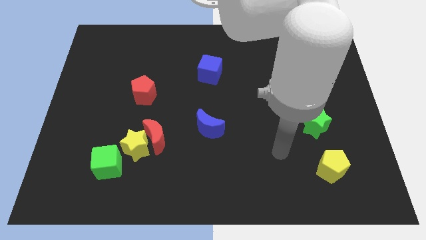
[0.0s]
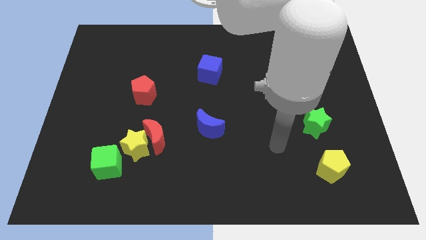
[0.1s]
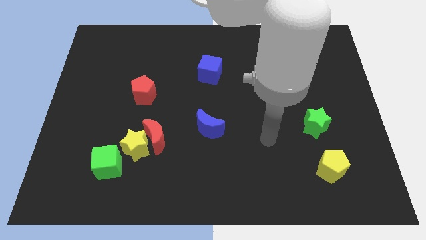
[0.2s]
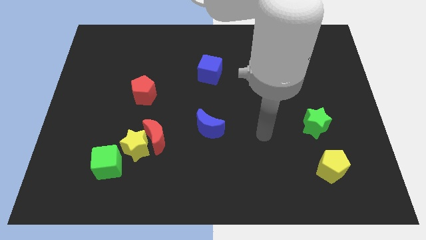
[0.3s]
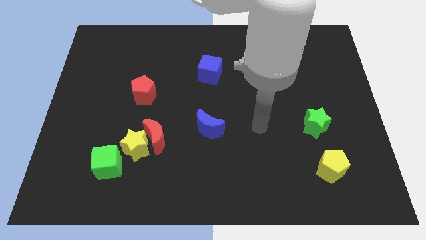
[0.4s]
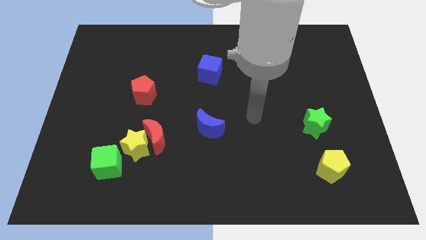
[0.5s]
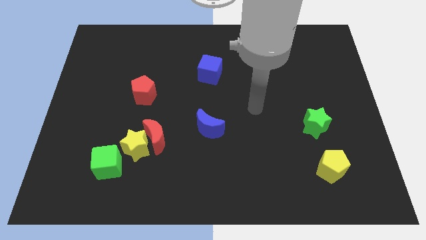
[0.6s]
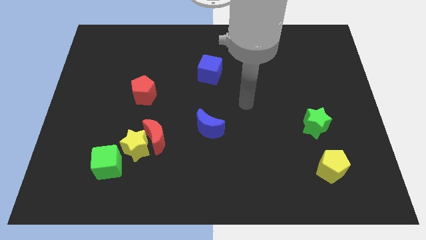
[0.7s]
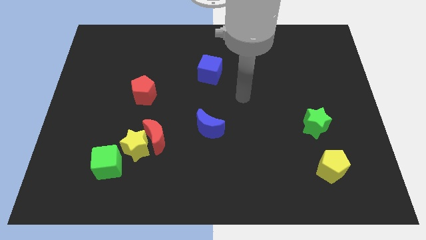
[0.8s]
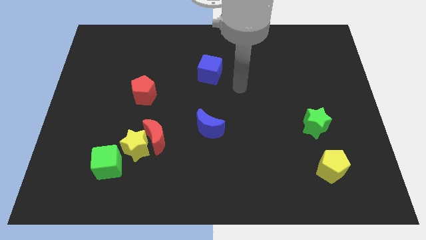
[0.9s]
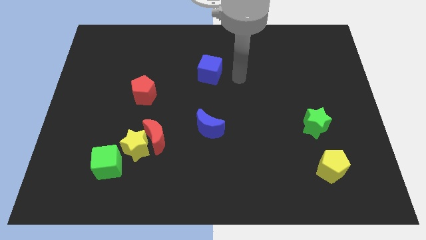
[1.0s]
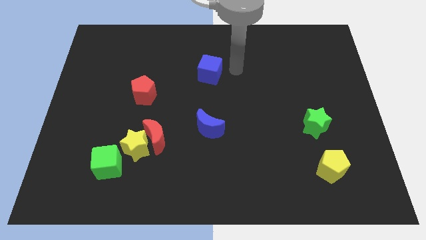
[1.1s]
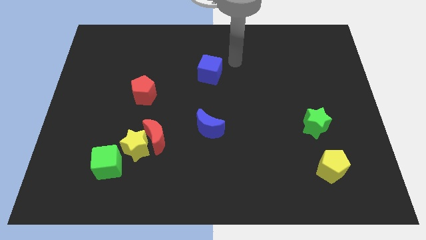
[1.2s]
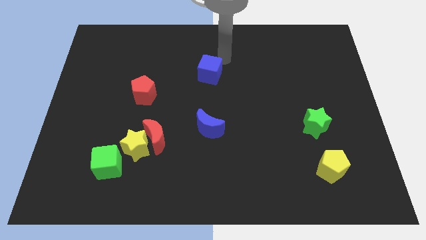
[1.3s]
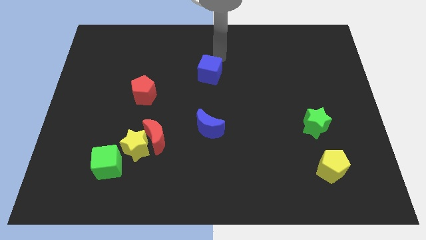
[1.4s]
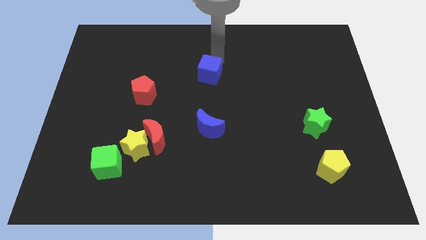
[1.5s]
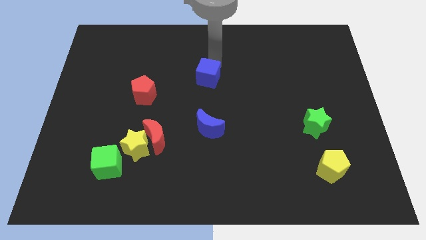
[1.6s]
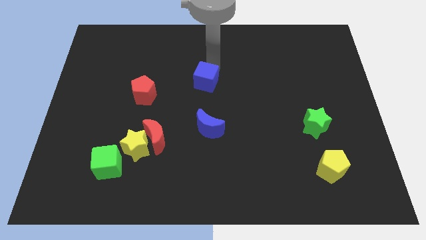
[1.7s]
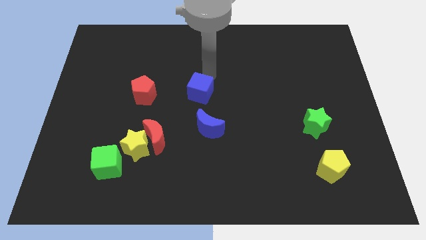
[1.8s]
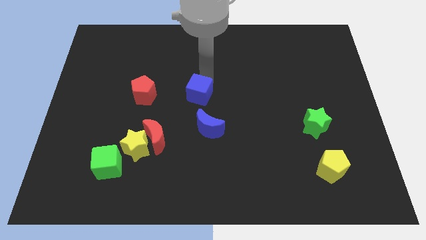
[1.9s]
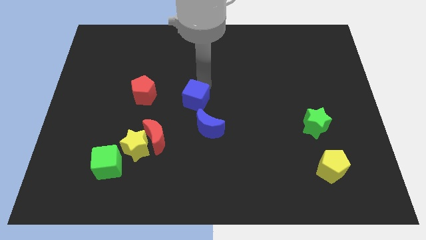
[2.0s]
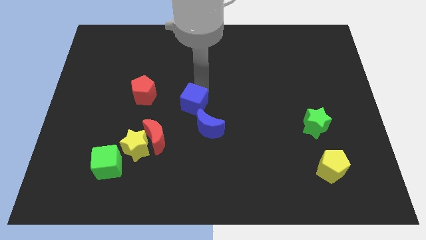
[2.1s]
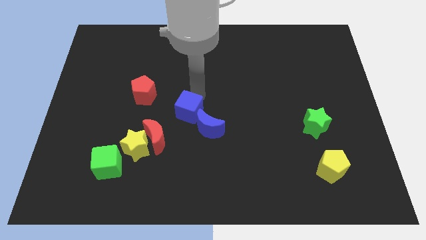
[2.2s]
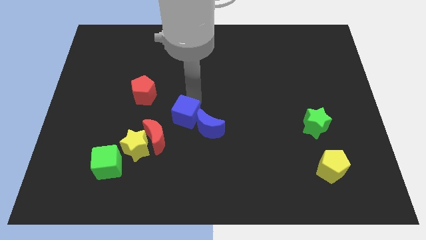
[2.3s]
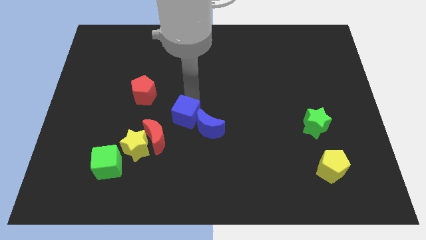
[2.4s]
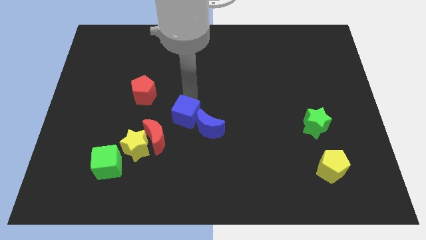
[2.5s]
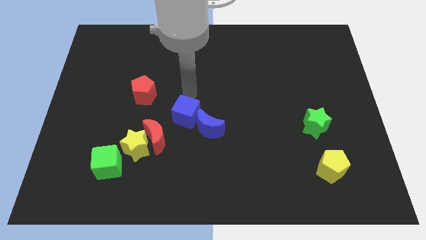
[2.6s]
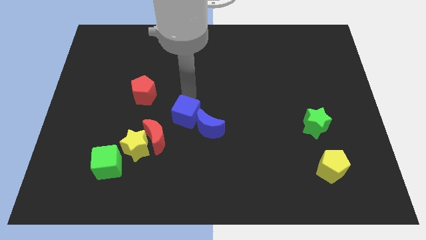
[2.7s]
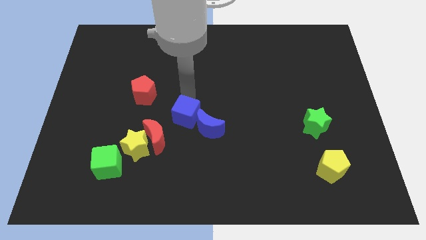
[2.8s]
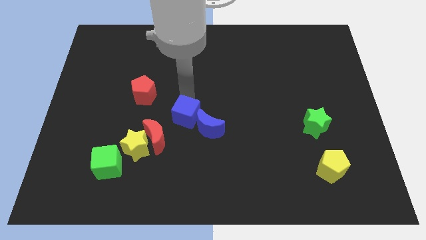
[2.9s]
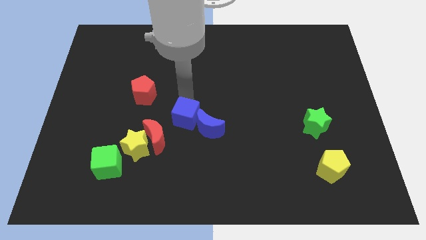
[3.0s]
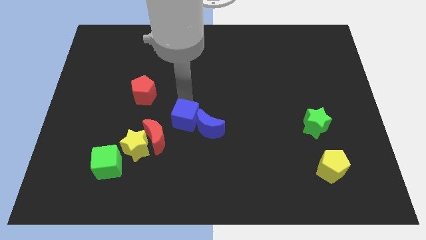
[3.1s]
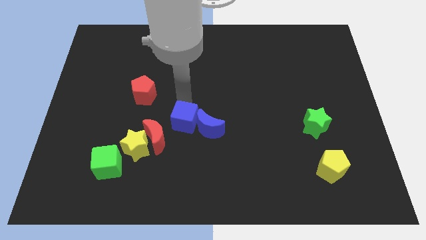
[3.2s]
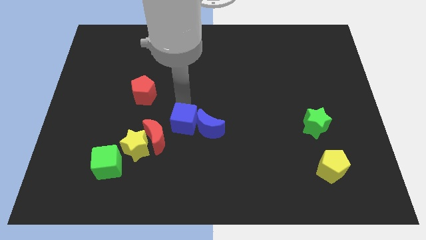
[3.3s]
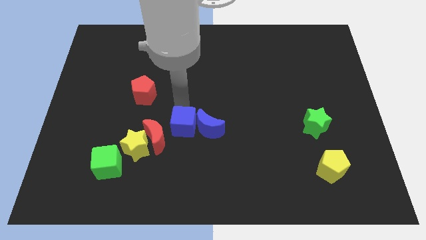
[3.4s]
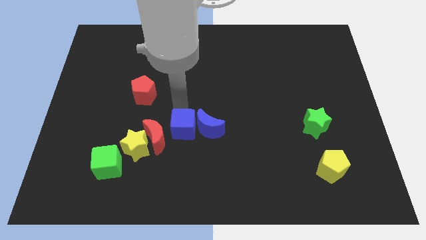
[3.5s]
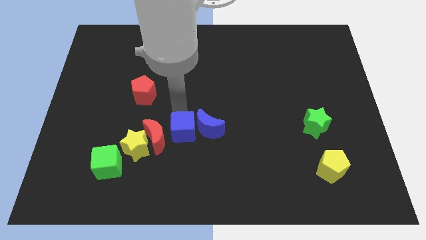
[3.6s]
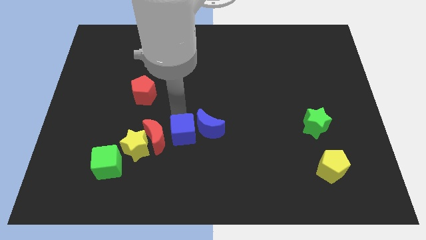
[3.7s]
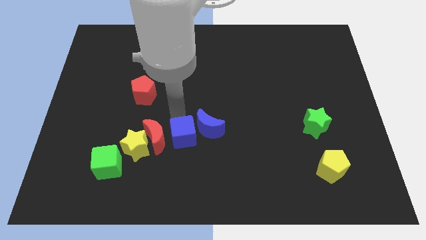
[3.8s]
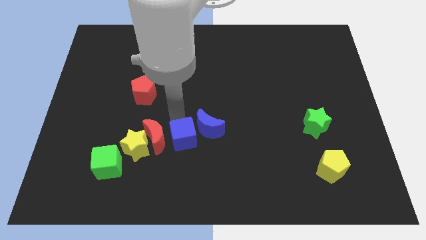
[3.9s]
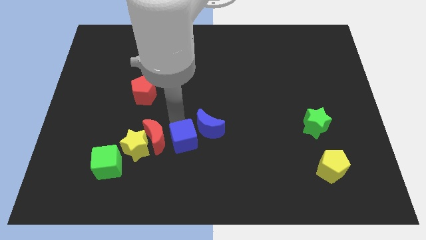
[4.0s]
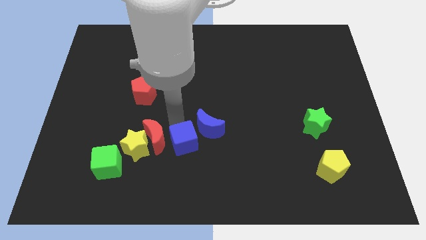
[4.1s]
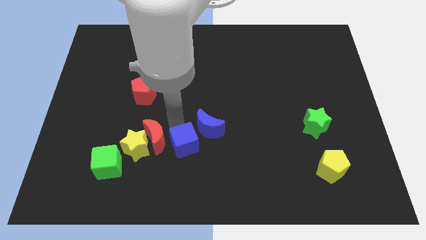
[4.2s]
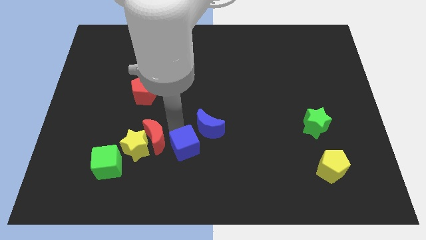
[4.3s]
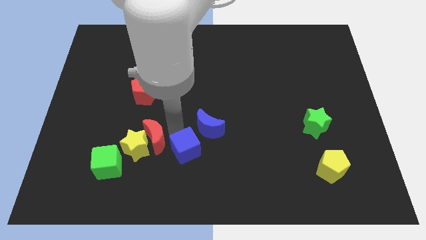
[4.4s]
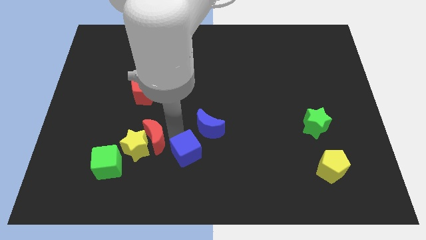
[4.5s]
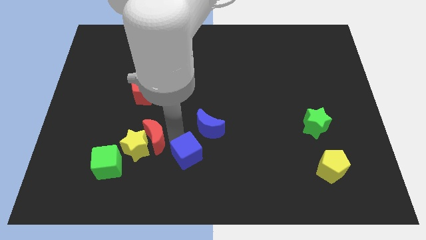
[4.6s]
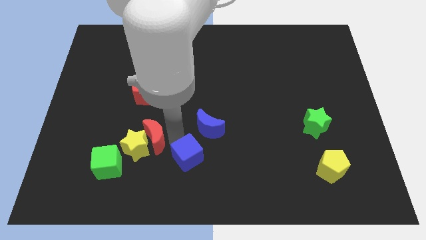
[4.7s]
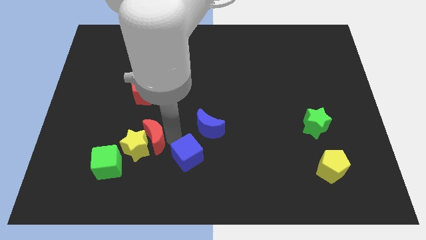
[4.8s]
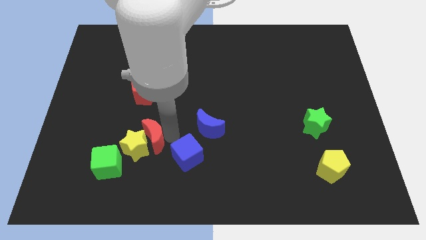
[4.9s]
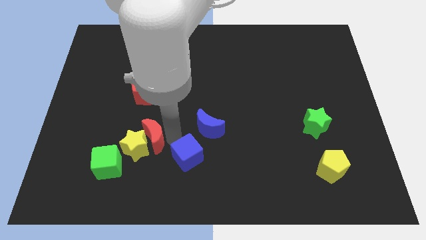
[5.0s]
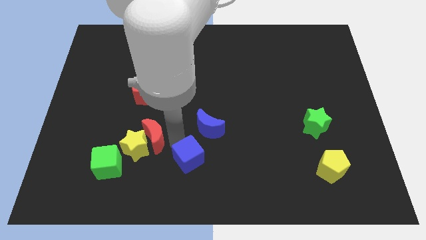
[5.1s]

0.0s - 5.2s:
put the blue cube to the bottom
